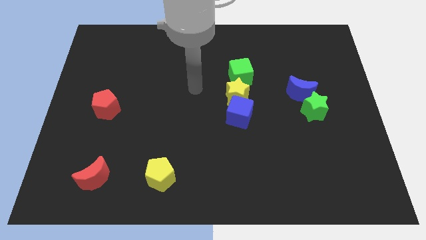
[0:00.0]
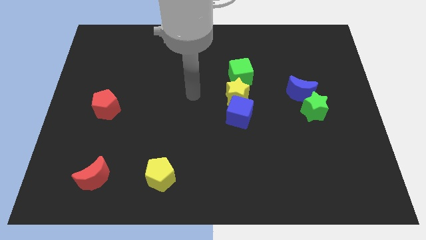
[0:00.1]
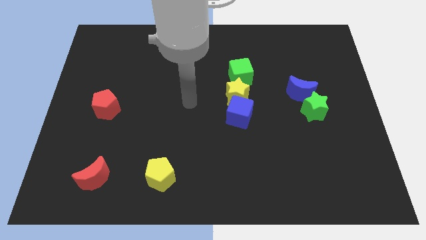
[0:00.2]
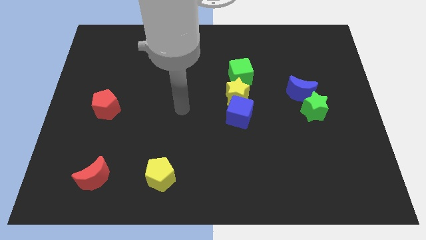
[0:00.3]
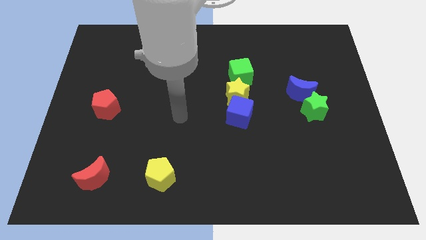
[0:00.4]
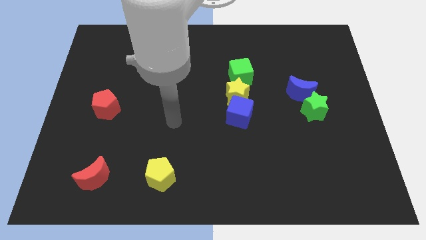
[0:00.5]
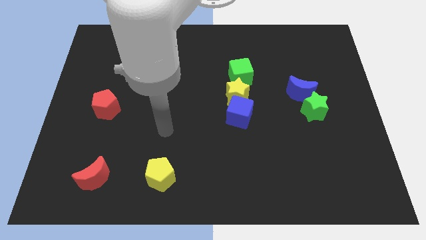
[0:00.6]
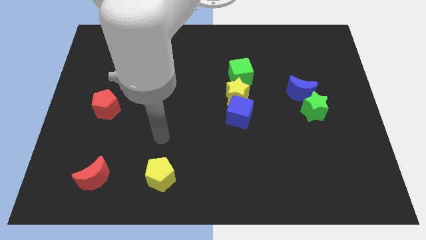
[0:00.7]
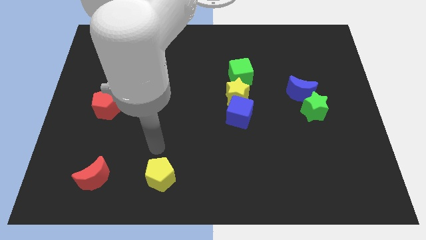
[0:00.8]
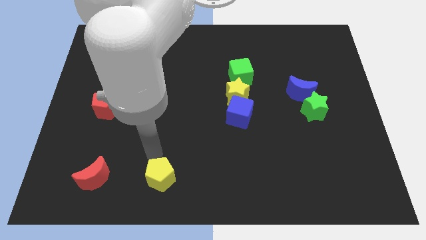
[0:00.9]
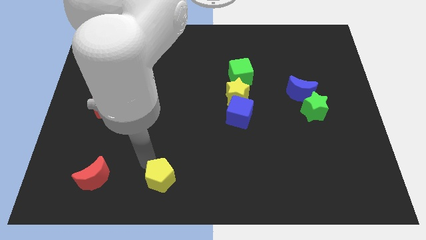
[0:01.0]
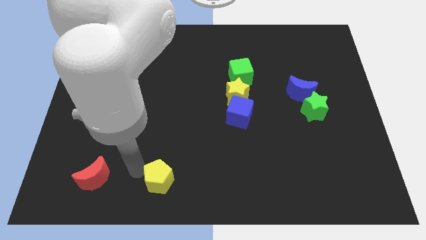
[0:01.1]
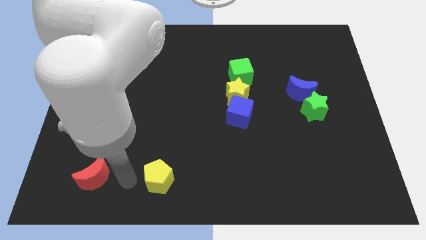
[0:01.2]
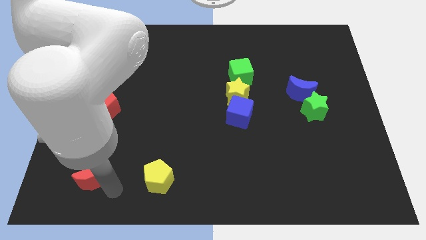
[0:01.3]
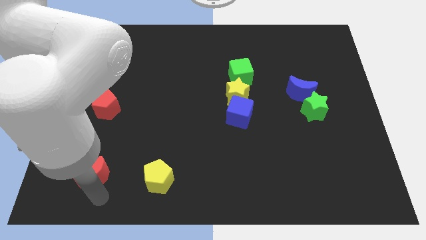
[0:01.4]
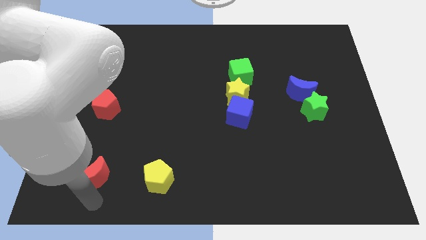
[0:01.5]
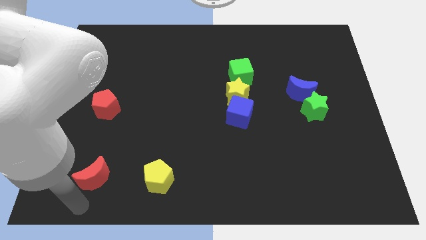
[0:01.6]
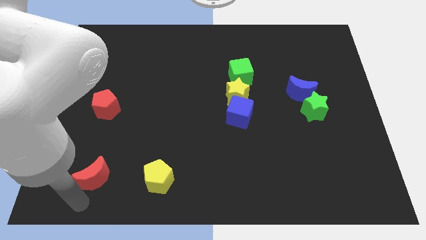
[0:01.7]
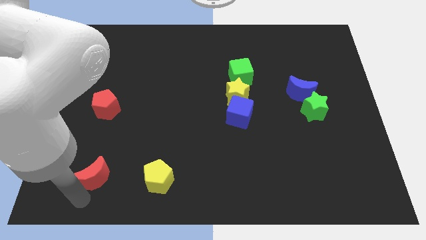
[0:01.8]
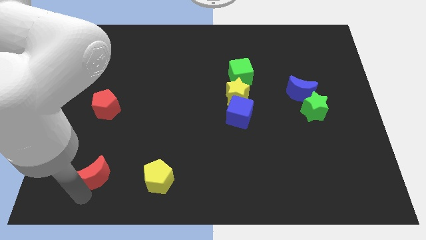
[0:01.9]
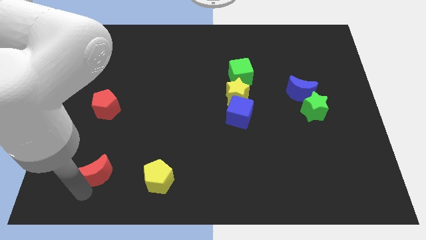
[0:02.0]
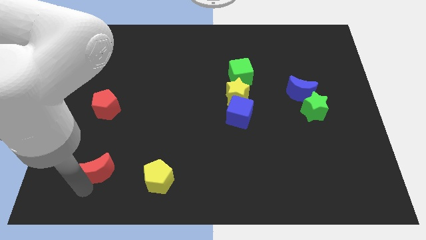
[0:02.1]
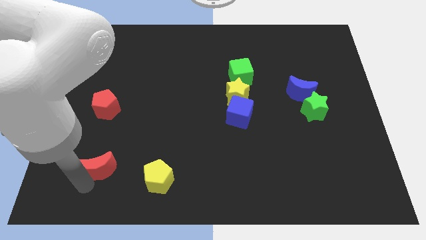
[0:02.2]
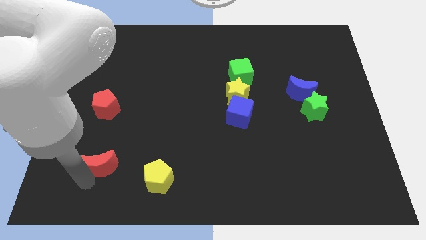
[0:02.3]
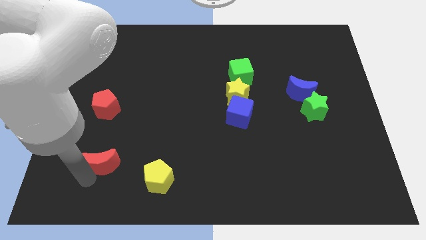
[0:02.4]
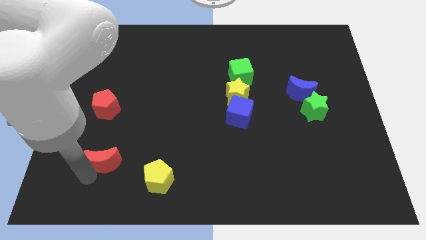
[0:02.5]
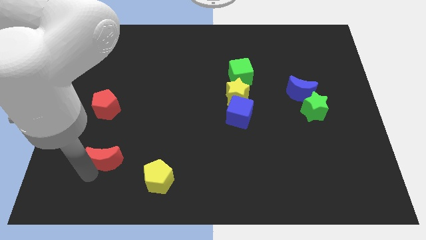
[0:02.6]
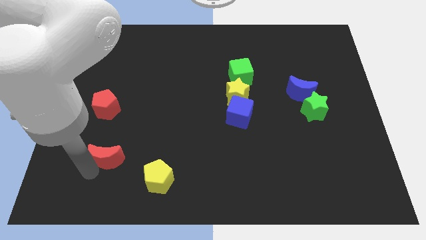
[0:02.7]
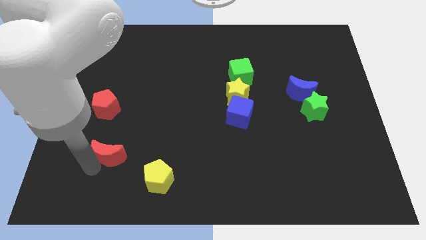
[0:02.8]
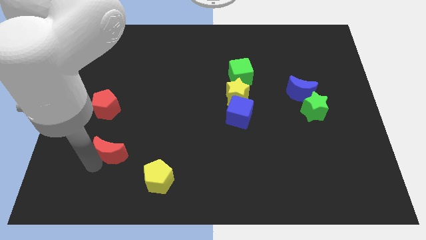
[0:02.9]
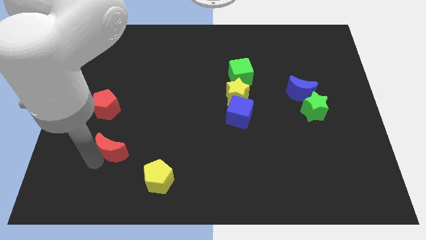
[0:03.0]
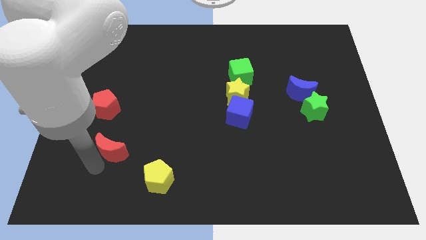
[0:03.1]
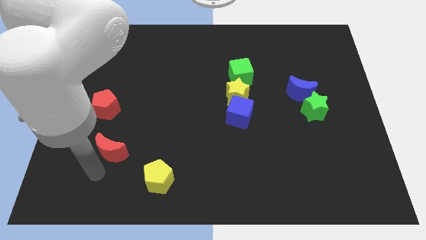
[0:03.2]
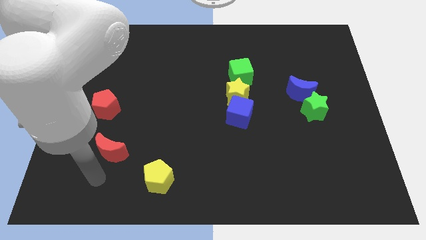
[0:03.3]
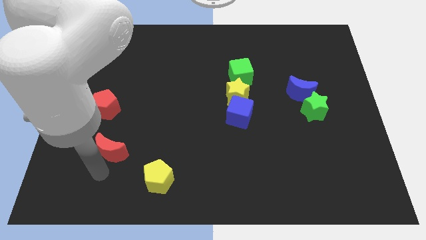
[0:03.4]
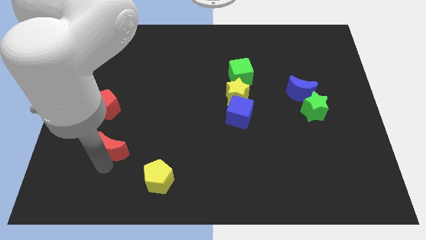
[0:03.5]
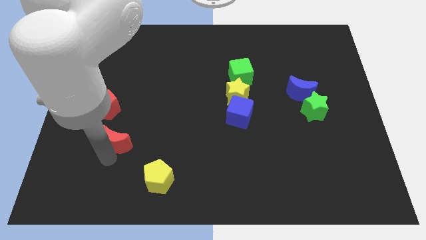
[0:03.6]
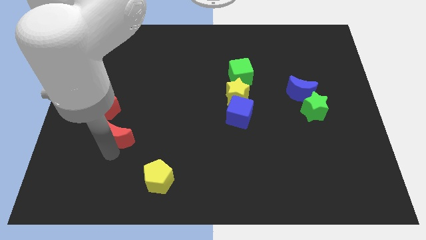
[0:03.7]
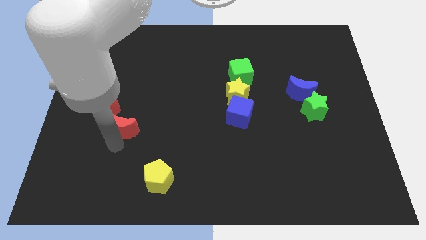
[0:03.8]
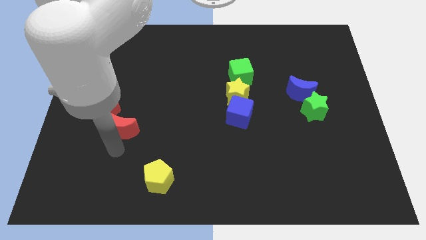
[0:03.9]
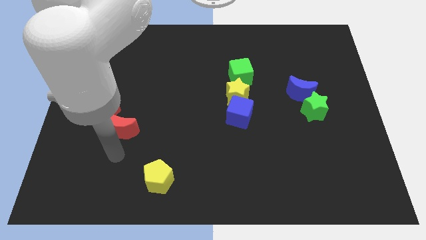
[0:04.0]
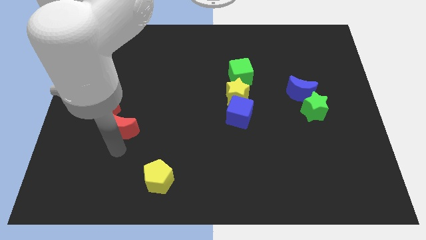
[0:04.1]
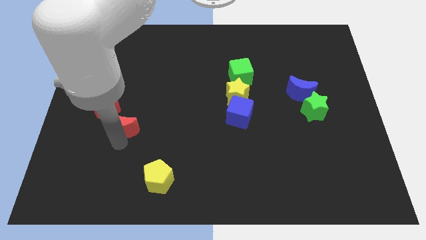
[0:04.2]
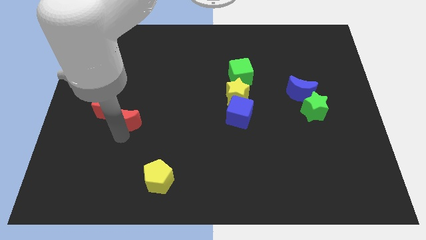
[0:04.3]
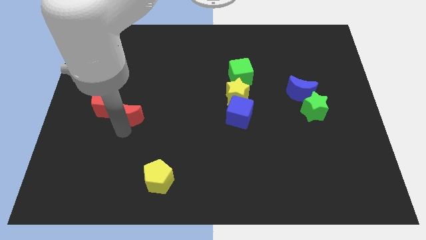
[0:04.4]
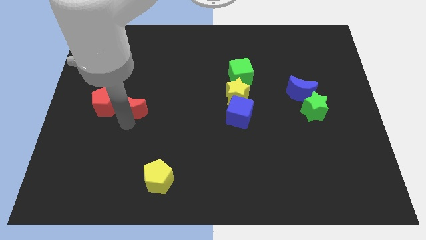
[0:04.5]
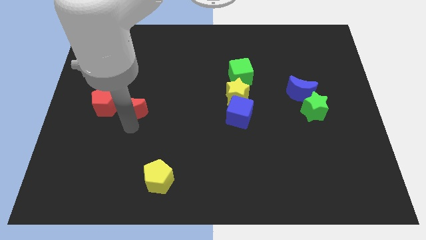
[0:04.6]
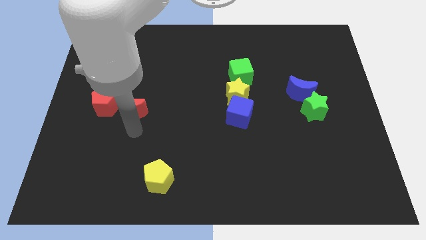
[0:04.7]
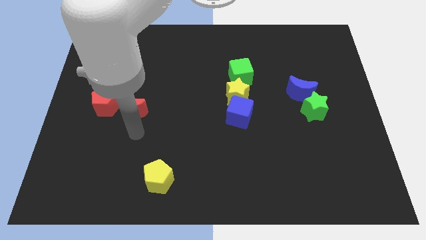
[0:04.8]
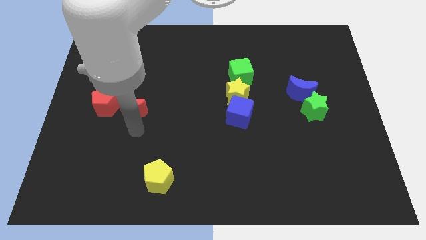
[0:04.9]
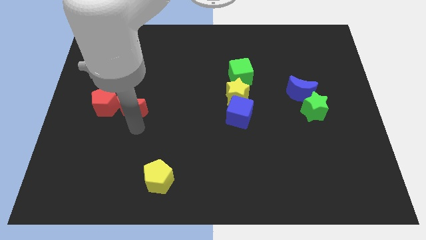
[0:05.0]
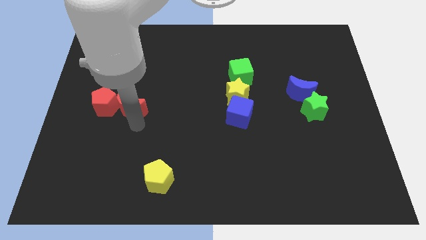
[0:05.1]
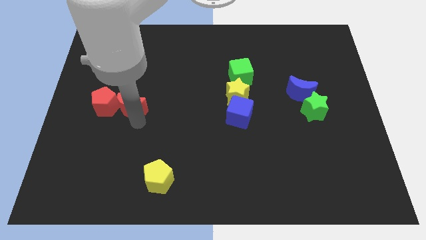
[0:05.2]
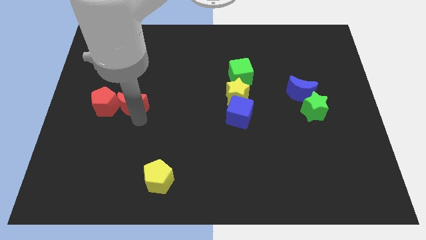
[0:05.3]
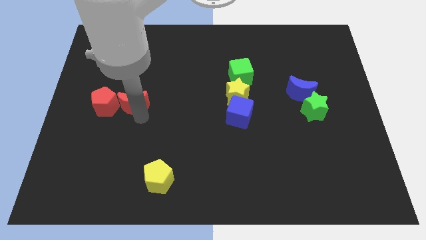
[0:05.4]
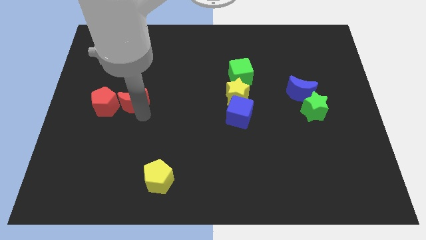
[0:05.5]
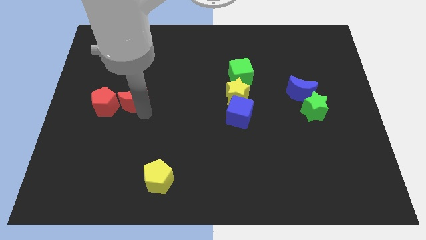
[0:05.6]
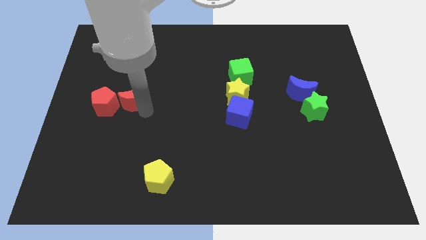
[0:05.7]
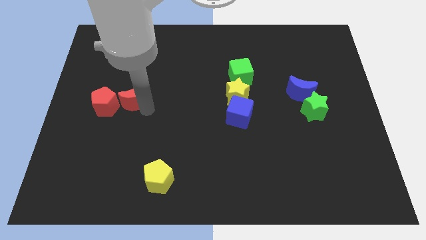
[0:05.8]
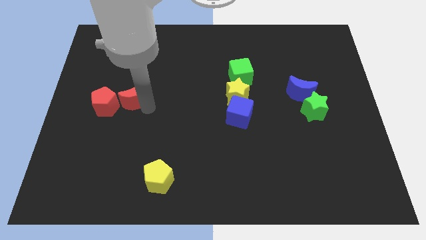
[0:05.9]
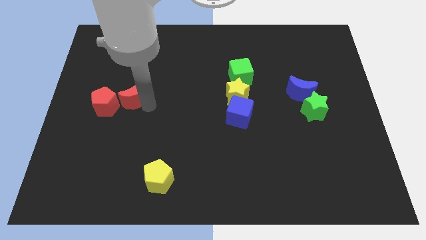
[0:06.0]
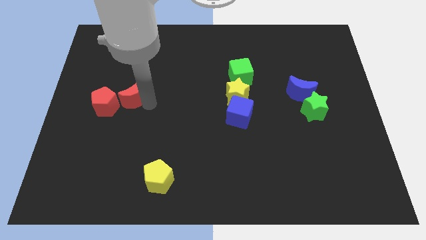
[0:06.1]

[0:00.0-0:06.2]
push the red moon up

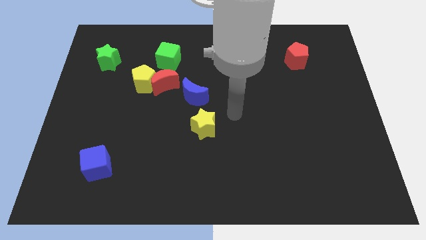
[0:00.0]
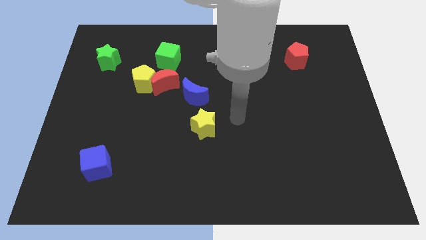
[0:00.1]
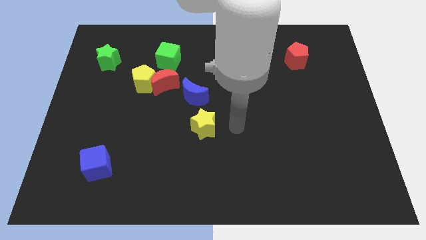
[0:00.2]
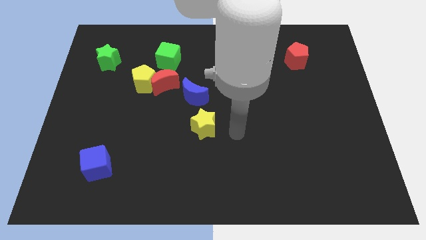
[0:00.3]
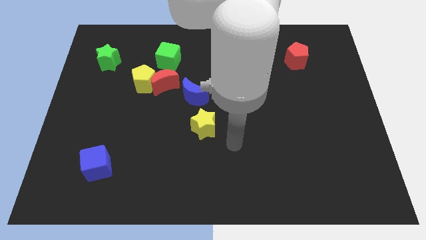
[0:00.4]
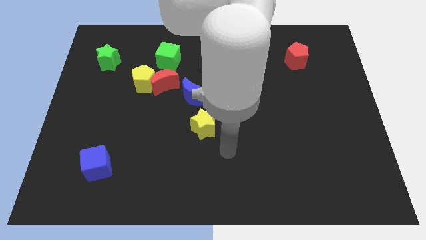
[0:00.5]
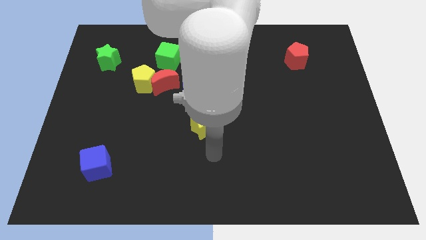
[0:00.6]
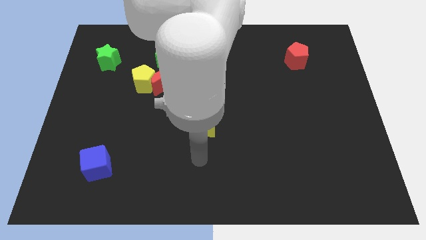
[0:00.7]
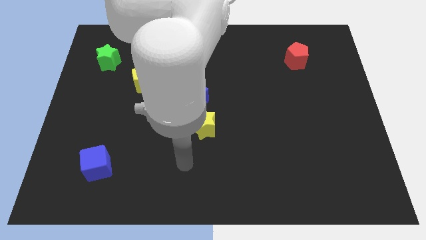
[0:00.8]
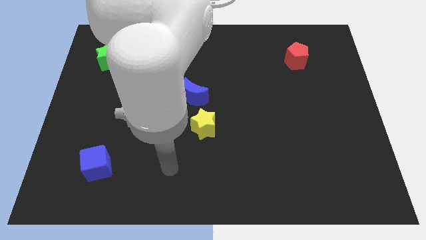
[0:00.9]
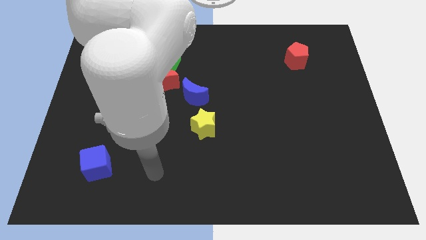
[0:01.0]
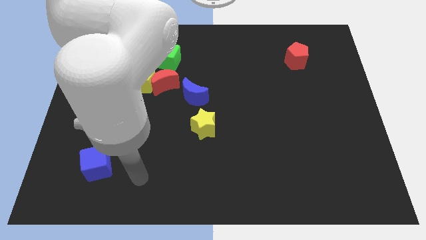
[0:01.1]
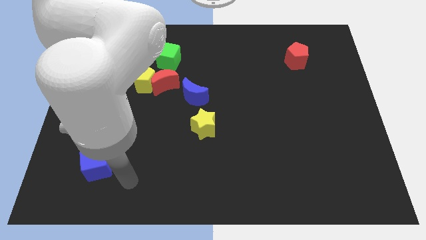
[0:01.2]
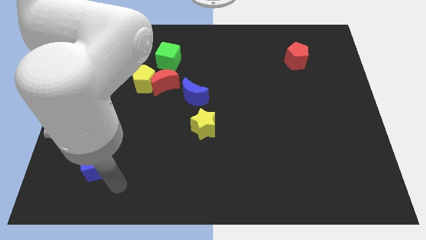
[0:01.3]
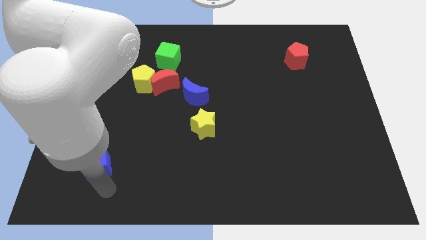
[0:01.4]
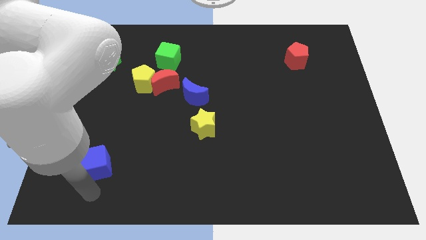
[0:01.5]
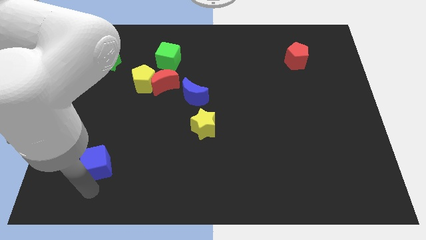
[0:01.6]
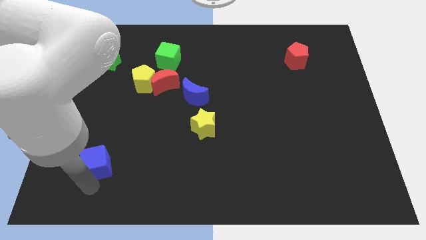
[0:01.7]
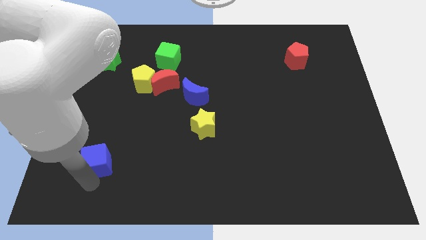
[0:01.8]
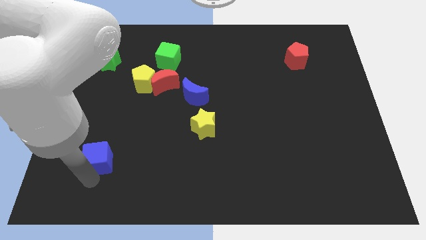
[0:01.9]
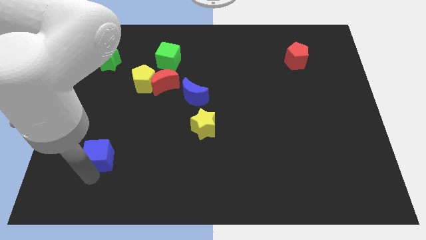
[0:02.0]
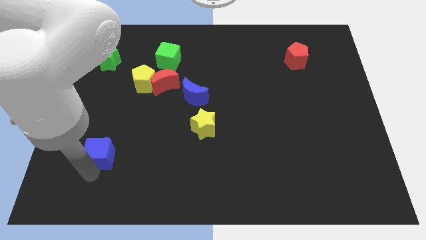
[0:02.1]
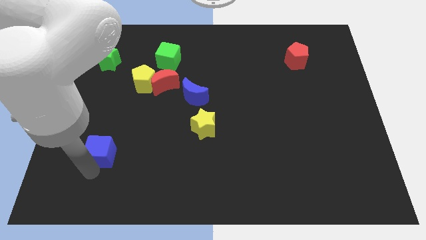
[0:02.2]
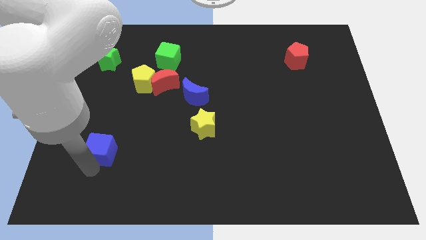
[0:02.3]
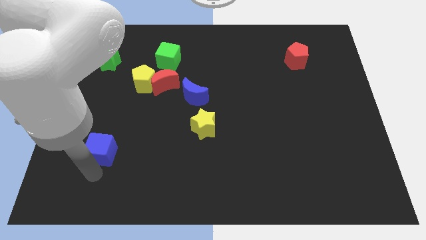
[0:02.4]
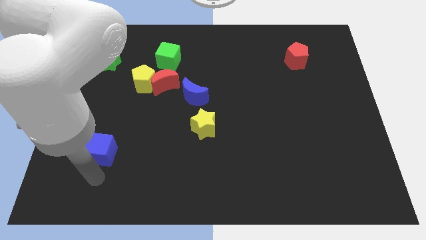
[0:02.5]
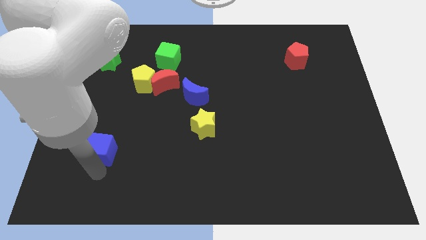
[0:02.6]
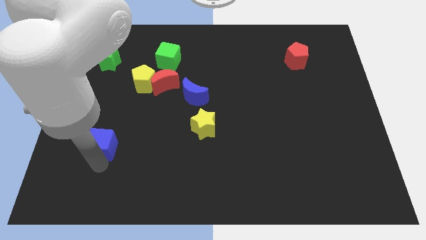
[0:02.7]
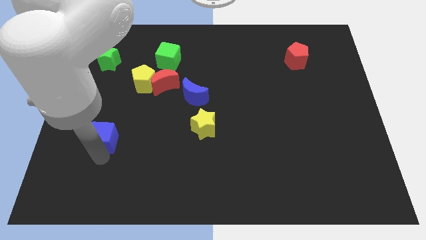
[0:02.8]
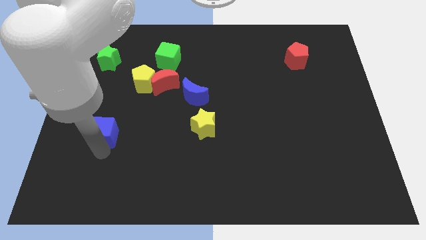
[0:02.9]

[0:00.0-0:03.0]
slightly push the blue cube up
